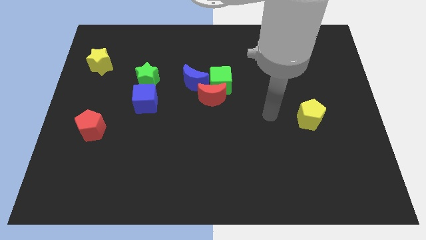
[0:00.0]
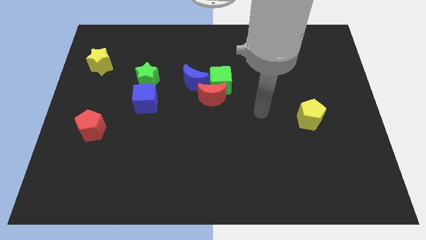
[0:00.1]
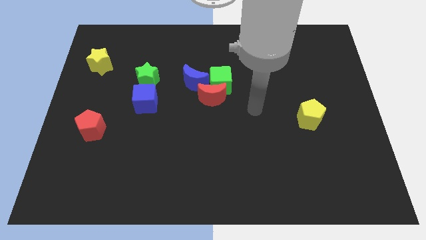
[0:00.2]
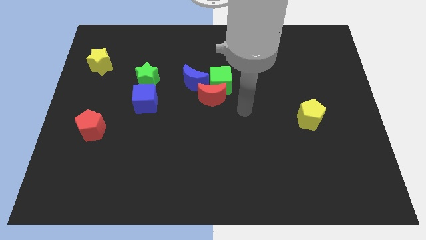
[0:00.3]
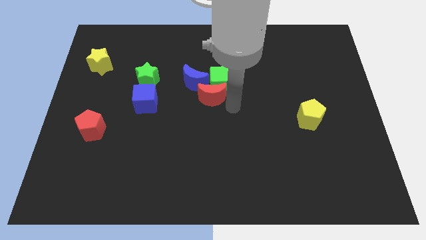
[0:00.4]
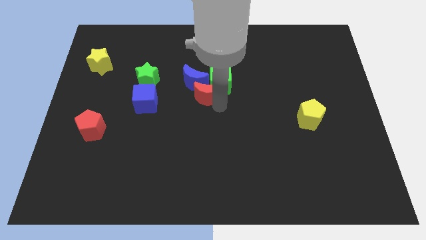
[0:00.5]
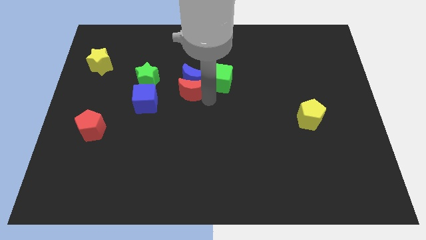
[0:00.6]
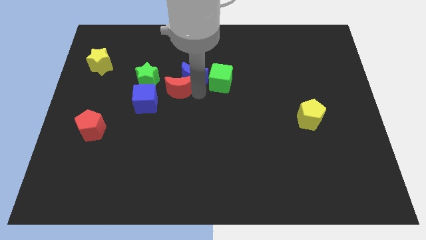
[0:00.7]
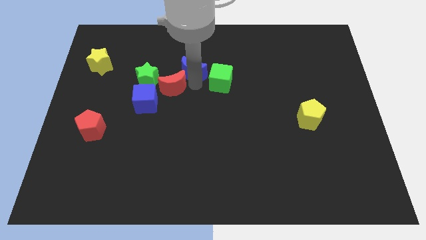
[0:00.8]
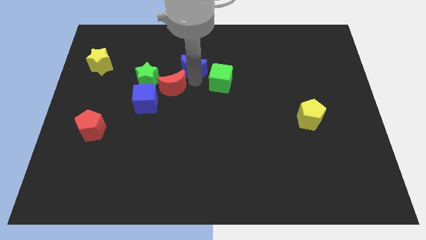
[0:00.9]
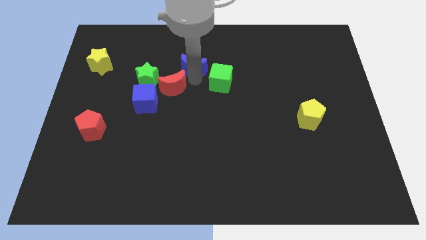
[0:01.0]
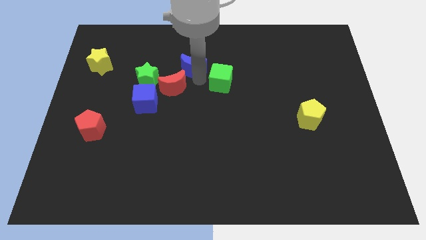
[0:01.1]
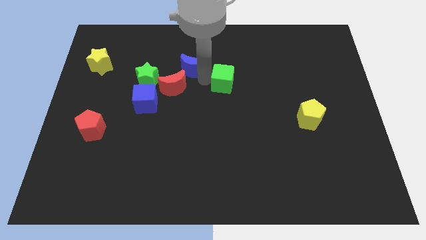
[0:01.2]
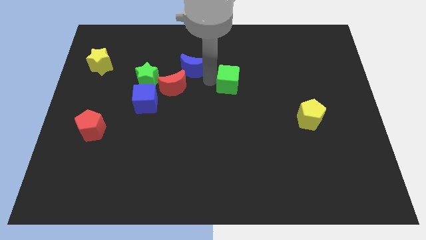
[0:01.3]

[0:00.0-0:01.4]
move the green cube away from the red moon and blue moon

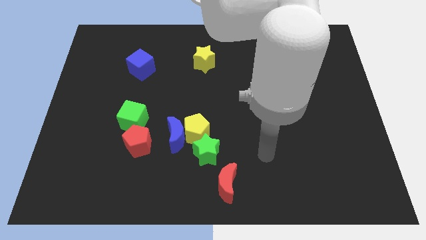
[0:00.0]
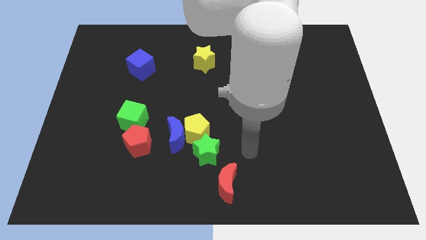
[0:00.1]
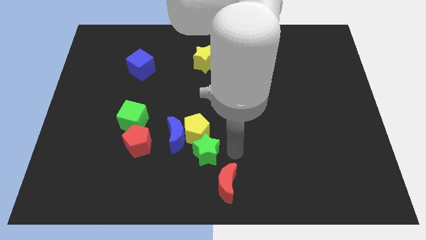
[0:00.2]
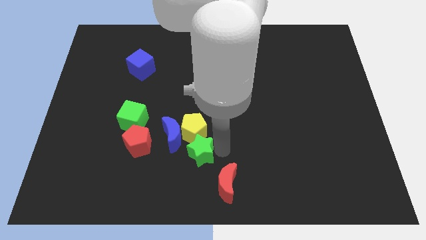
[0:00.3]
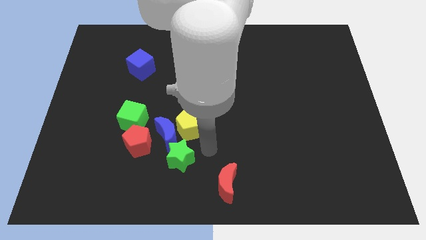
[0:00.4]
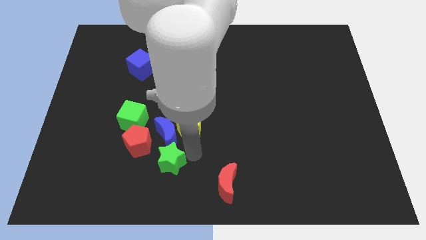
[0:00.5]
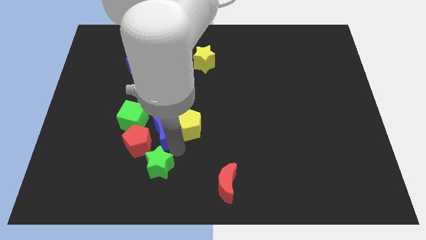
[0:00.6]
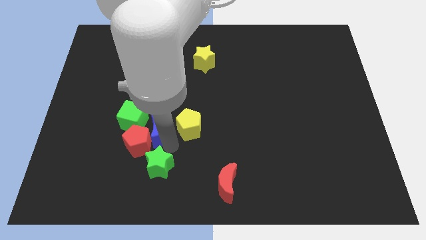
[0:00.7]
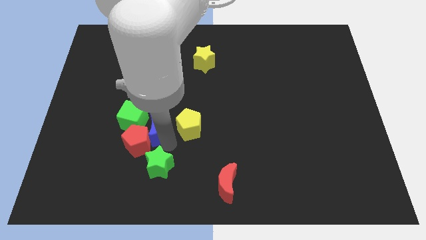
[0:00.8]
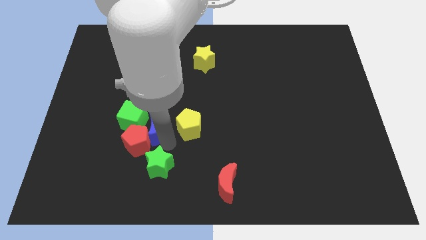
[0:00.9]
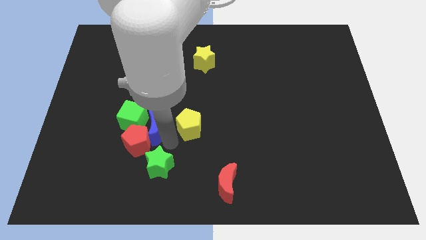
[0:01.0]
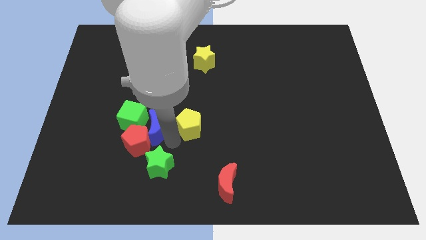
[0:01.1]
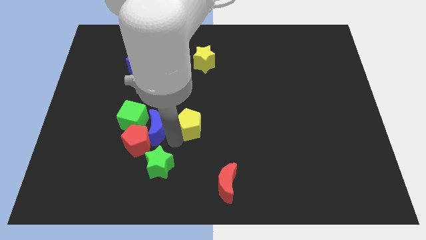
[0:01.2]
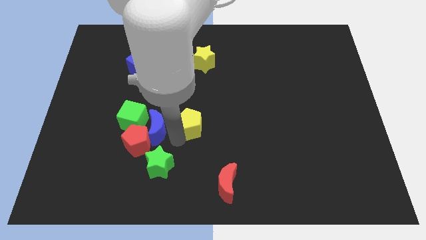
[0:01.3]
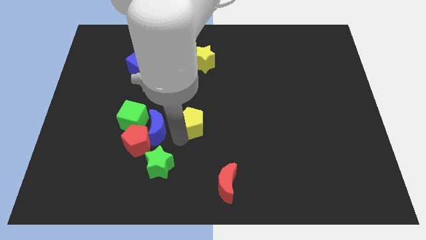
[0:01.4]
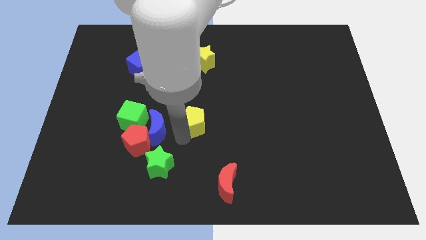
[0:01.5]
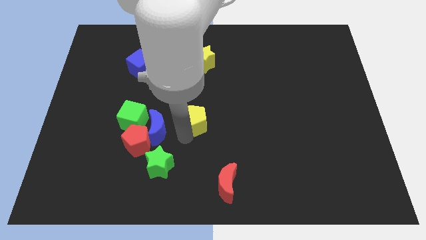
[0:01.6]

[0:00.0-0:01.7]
separate the yellow pentagon from the blue moon and green star

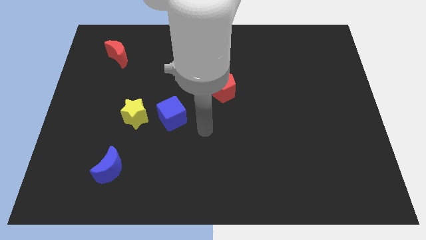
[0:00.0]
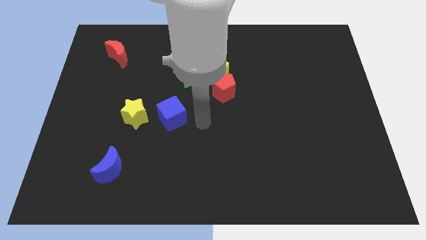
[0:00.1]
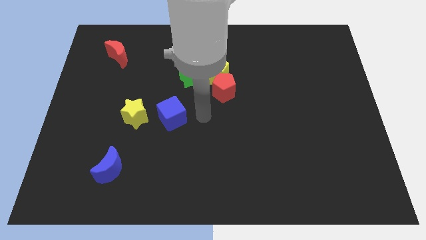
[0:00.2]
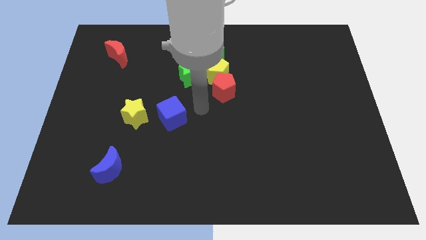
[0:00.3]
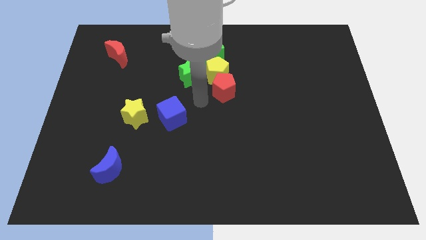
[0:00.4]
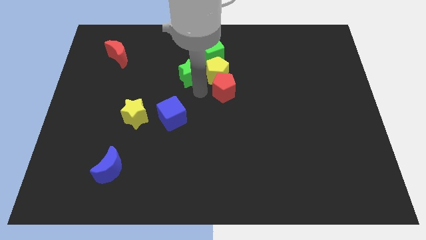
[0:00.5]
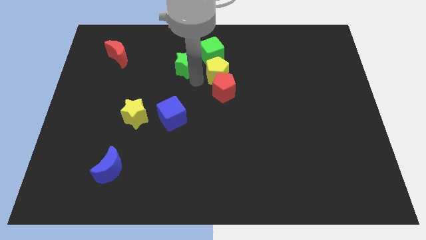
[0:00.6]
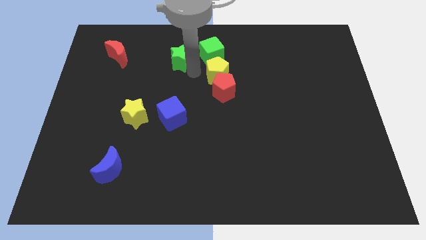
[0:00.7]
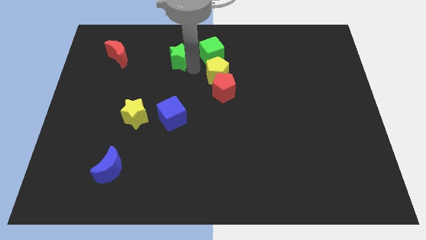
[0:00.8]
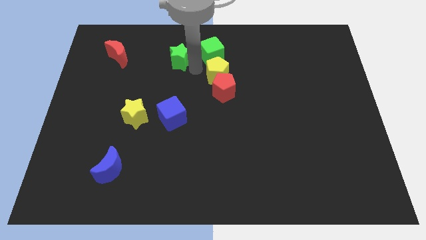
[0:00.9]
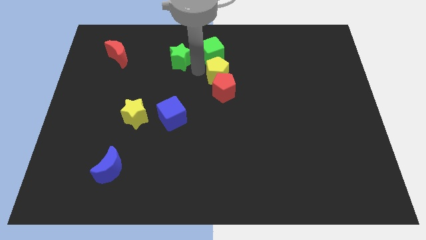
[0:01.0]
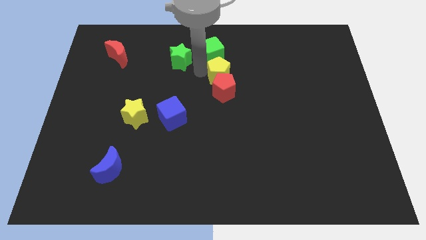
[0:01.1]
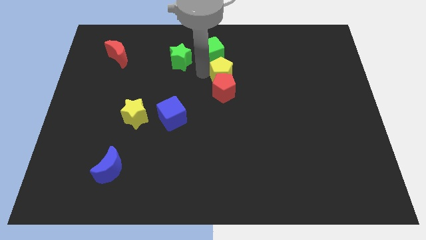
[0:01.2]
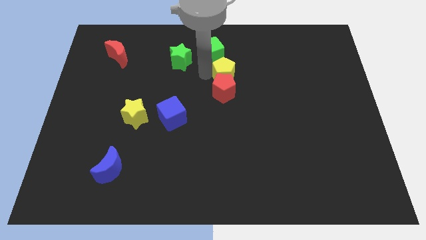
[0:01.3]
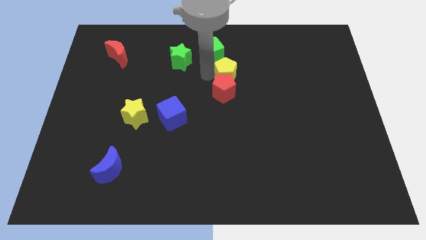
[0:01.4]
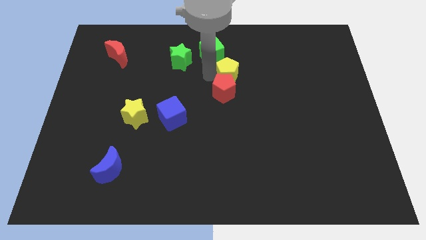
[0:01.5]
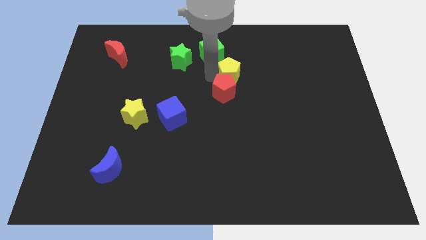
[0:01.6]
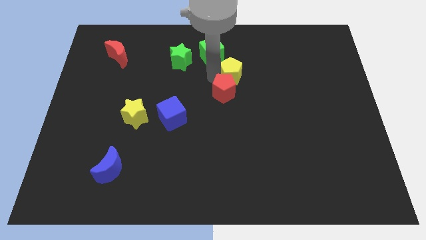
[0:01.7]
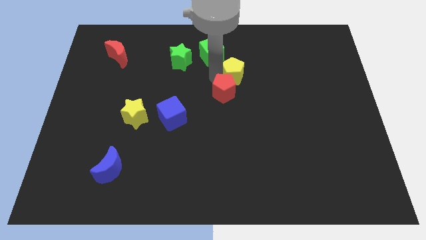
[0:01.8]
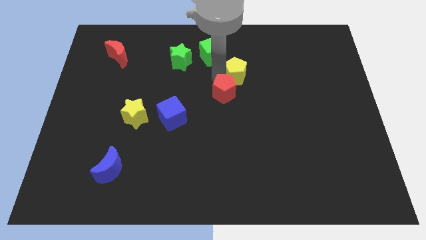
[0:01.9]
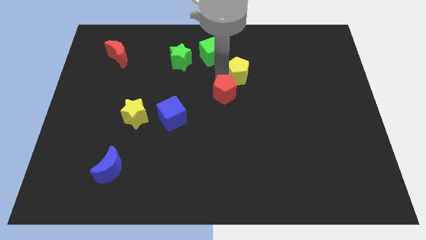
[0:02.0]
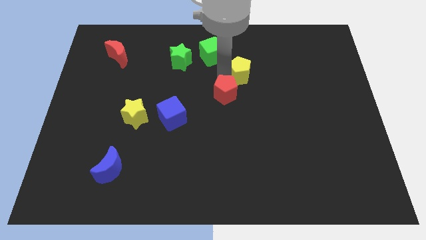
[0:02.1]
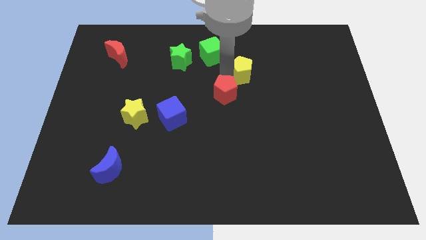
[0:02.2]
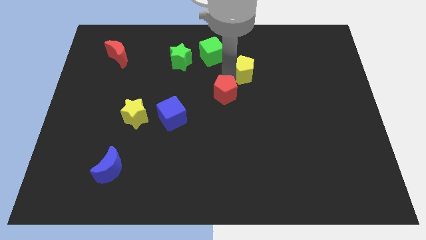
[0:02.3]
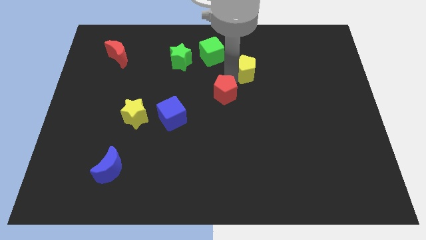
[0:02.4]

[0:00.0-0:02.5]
separate the yellow pentagon from the clump

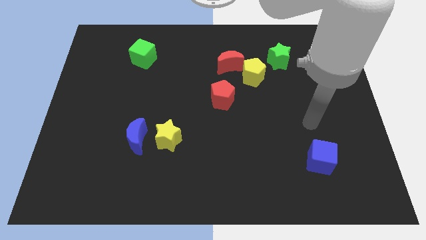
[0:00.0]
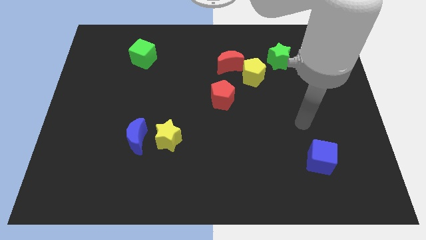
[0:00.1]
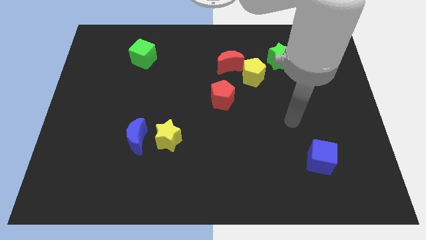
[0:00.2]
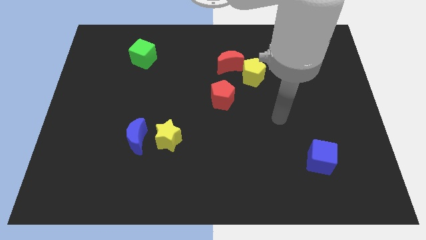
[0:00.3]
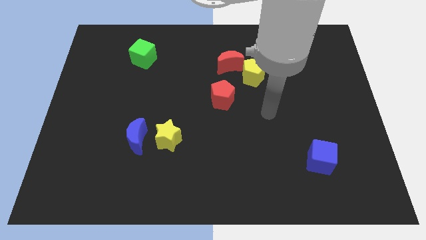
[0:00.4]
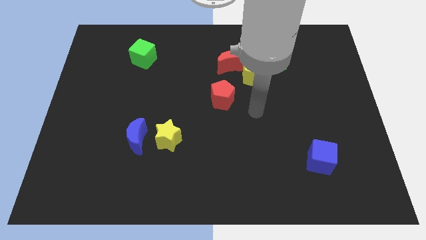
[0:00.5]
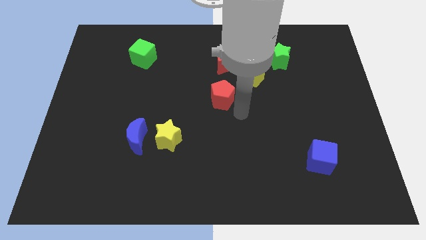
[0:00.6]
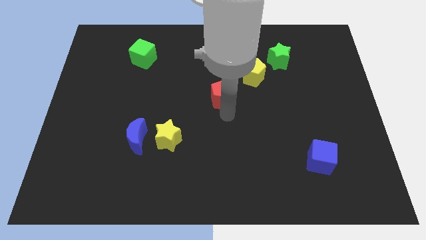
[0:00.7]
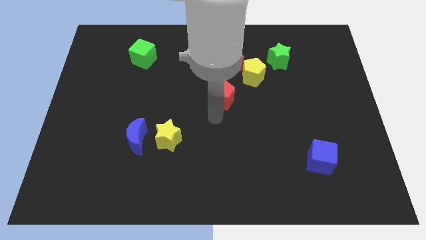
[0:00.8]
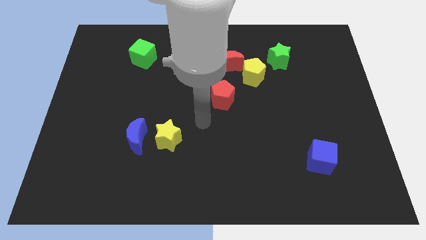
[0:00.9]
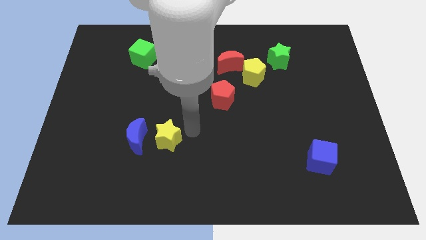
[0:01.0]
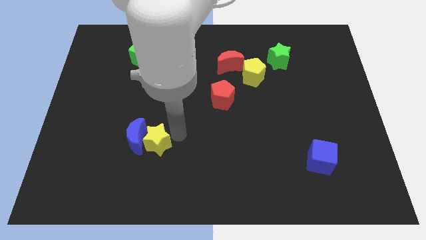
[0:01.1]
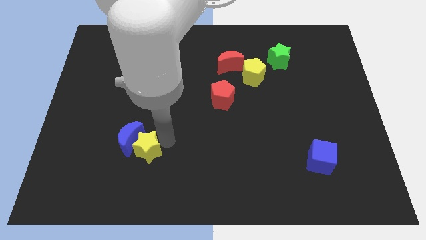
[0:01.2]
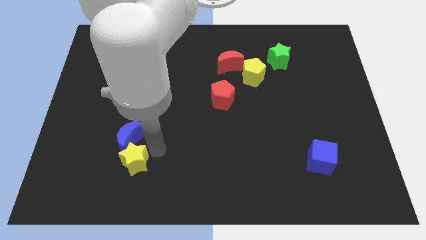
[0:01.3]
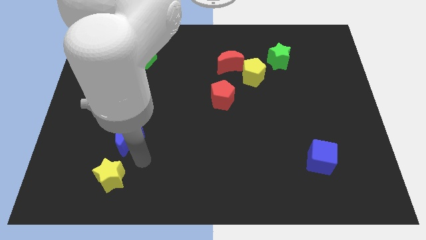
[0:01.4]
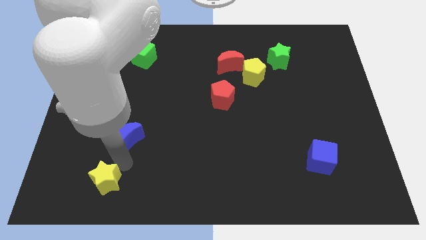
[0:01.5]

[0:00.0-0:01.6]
pull the blue moon apart from the yellow star

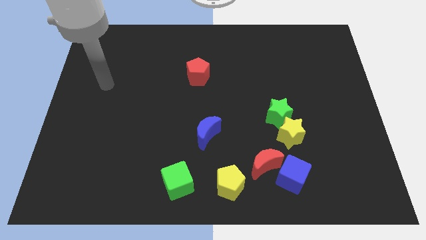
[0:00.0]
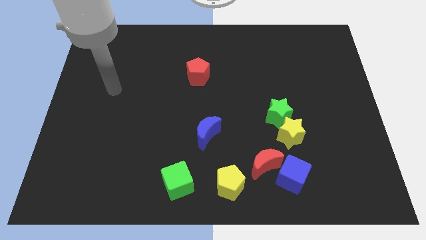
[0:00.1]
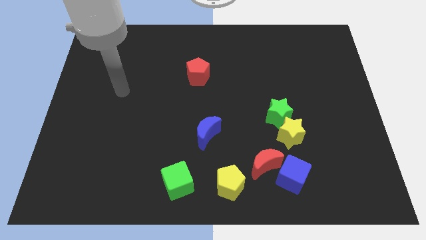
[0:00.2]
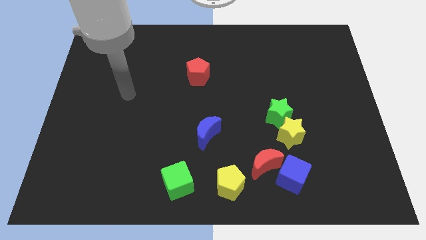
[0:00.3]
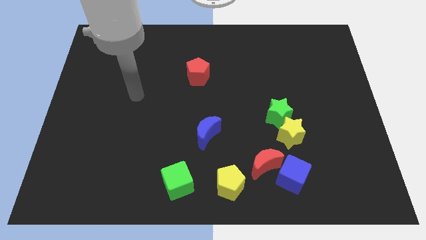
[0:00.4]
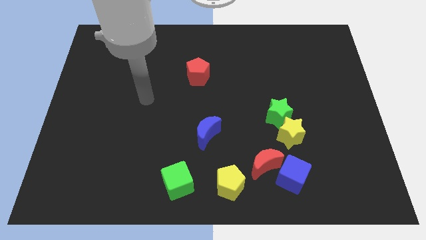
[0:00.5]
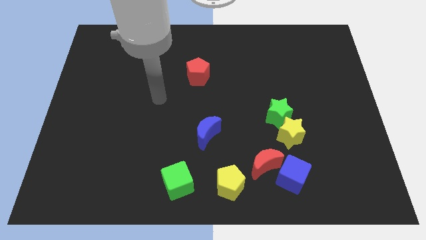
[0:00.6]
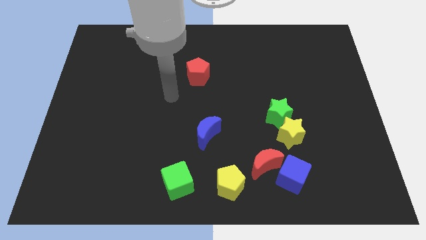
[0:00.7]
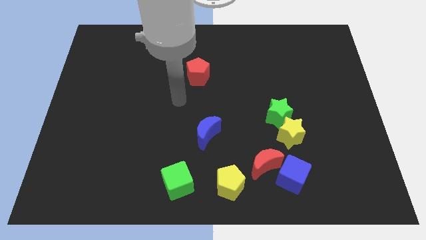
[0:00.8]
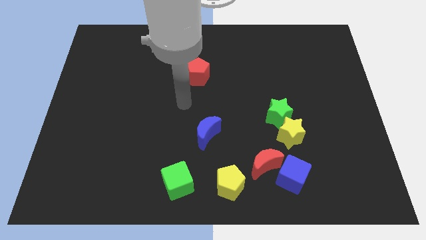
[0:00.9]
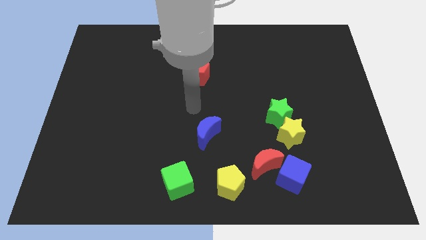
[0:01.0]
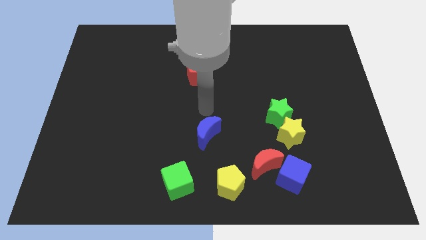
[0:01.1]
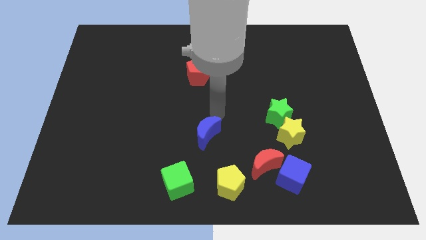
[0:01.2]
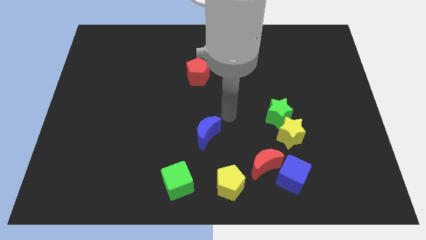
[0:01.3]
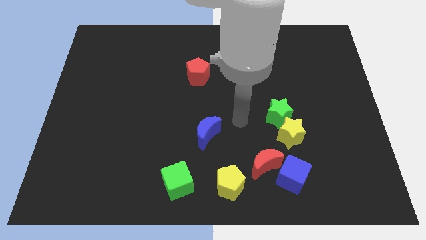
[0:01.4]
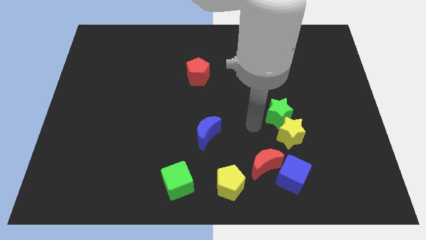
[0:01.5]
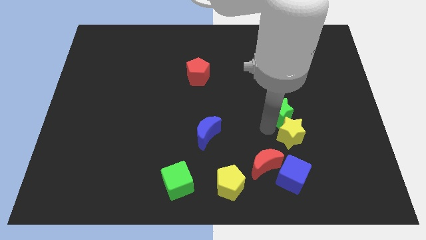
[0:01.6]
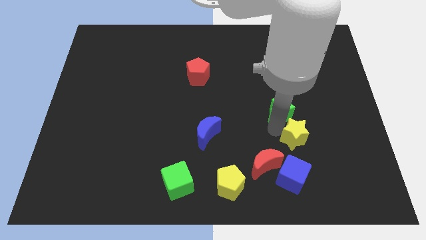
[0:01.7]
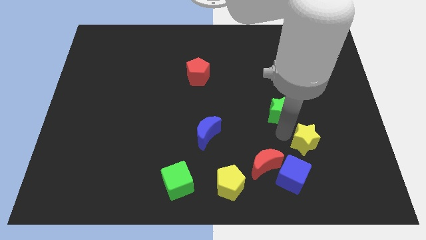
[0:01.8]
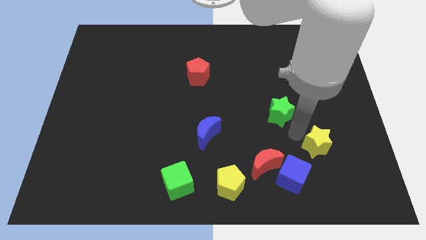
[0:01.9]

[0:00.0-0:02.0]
separate the green star from the yellow star
